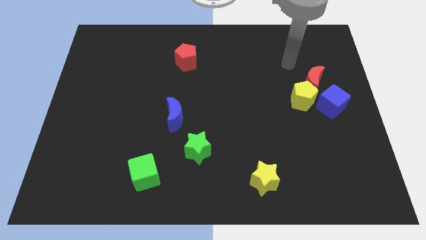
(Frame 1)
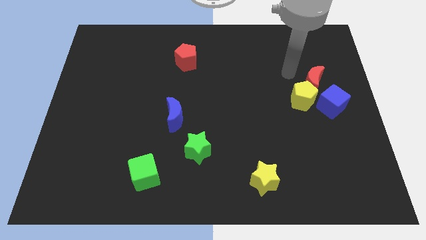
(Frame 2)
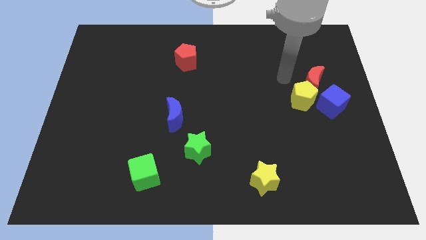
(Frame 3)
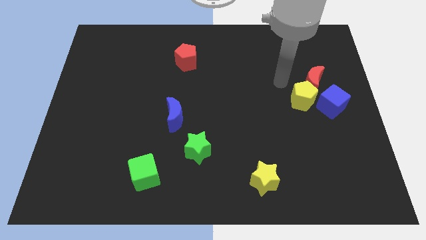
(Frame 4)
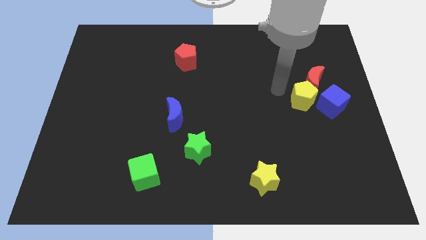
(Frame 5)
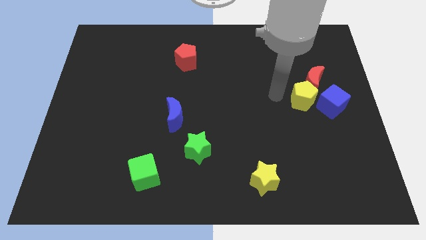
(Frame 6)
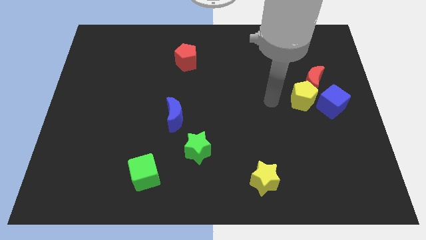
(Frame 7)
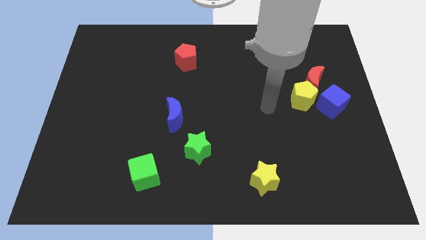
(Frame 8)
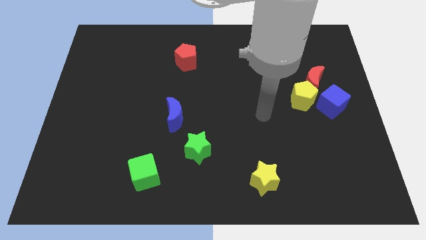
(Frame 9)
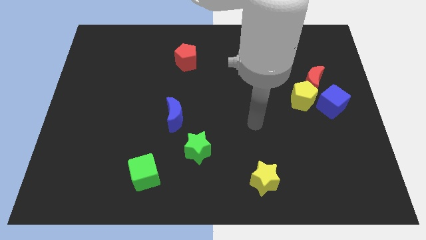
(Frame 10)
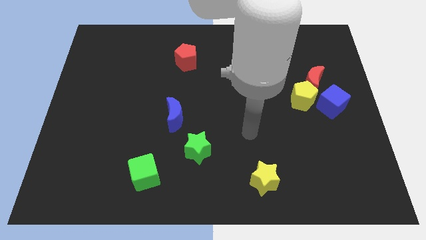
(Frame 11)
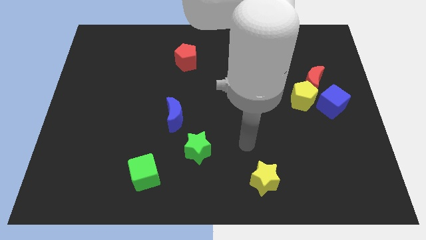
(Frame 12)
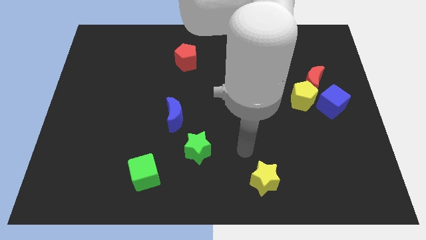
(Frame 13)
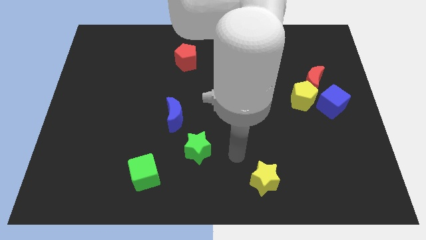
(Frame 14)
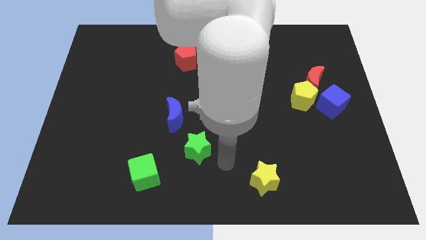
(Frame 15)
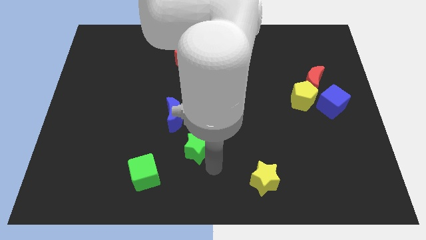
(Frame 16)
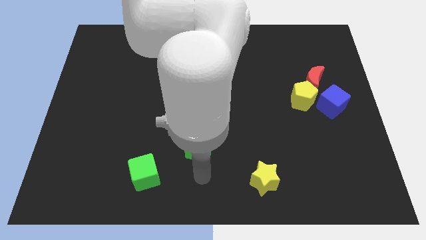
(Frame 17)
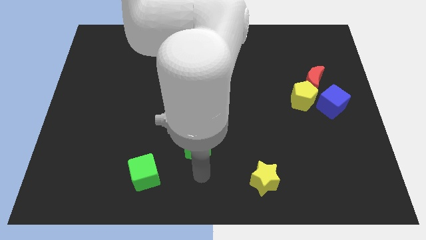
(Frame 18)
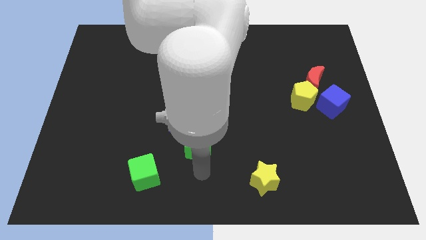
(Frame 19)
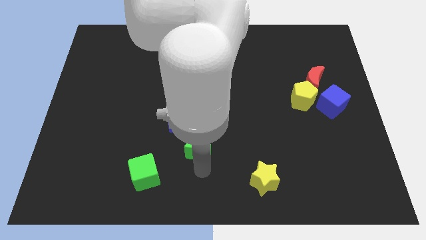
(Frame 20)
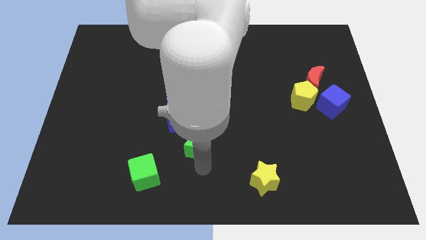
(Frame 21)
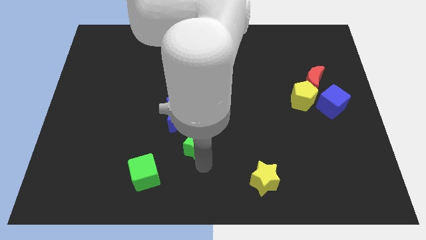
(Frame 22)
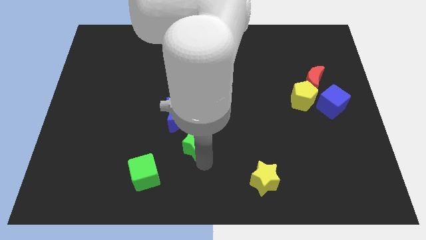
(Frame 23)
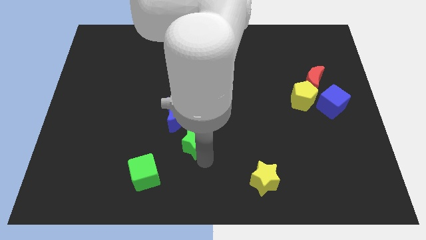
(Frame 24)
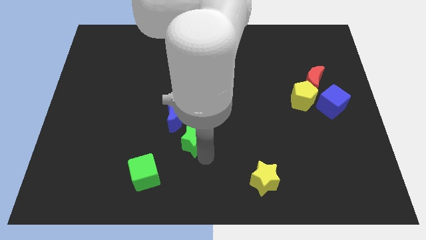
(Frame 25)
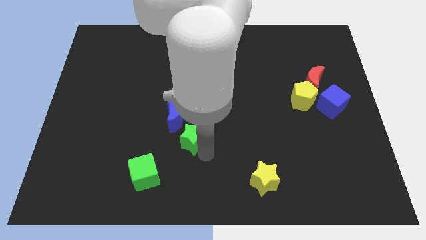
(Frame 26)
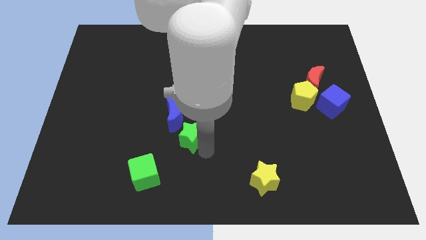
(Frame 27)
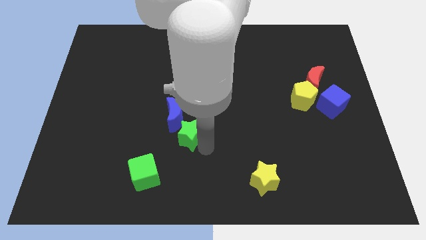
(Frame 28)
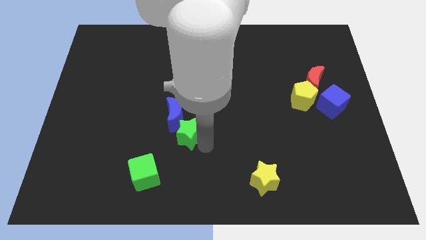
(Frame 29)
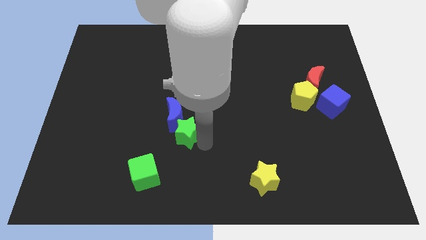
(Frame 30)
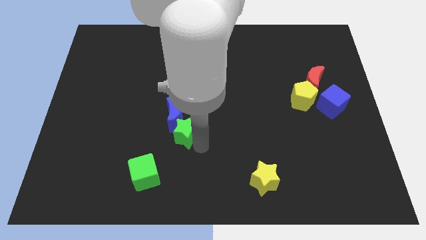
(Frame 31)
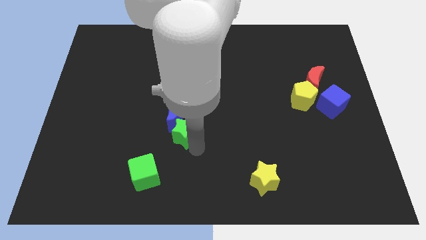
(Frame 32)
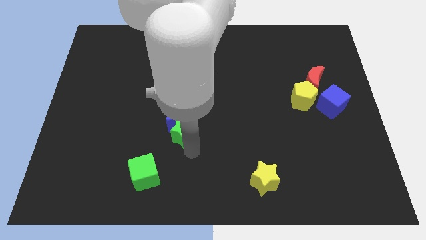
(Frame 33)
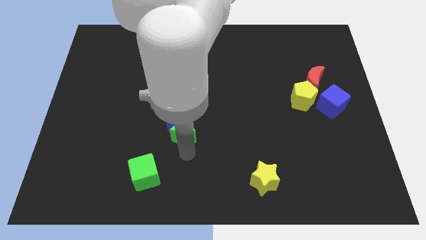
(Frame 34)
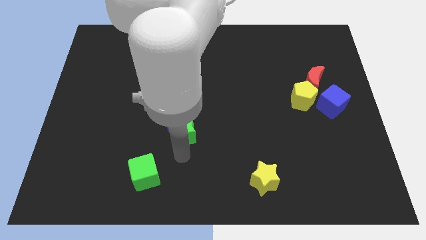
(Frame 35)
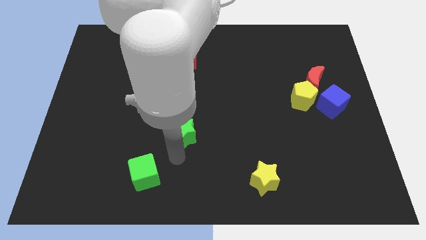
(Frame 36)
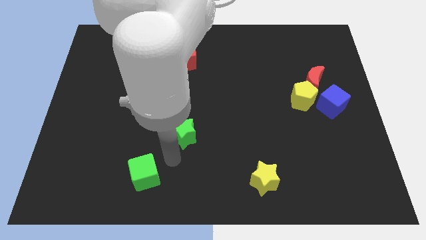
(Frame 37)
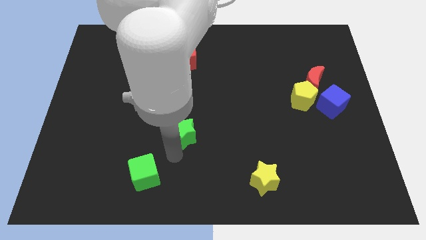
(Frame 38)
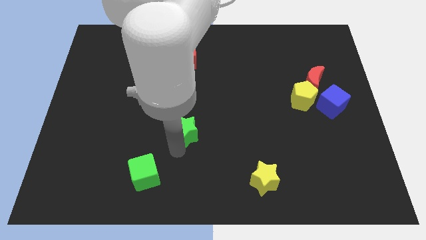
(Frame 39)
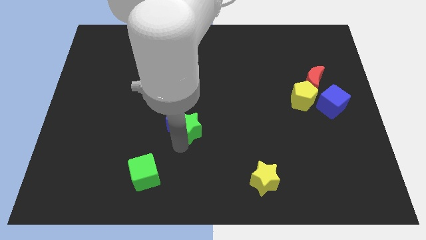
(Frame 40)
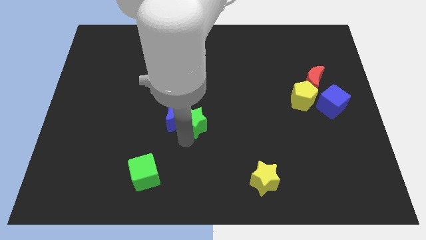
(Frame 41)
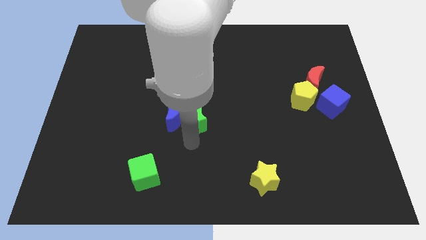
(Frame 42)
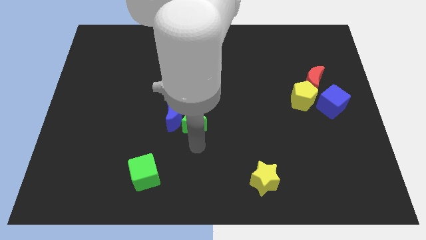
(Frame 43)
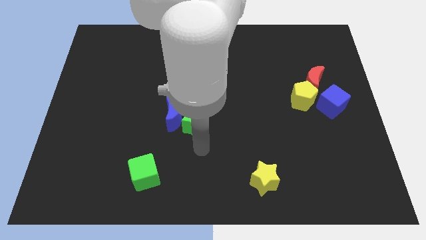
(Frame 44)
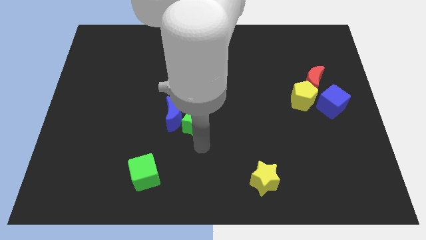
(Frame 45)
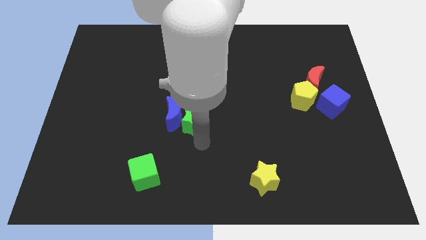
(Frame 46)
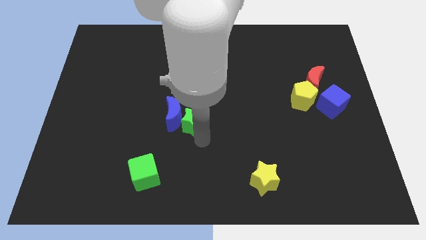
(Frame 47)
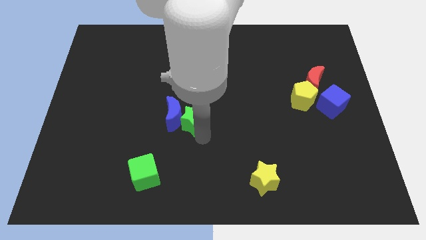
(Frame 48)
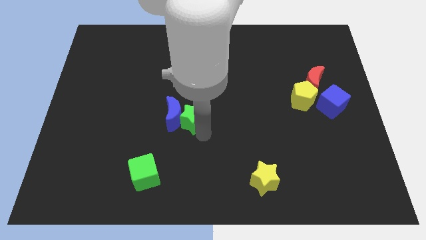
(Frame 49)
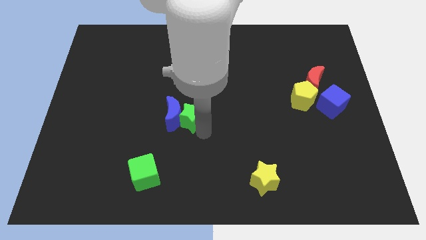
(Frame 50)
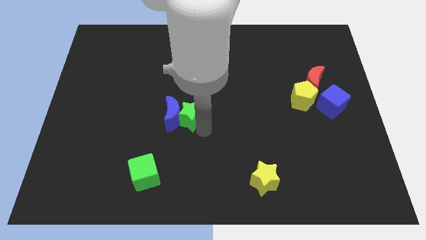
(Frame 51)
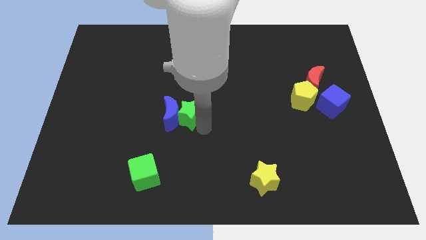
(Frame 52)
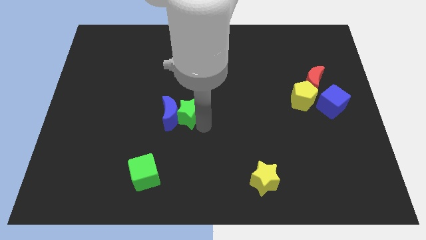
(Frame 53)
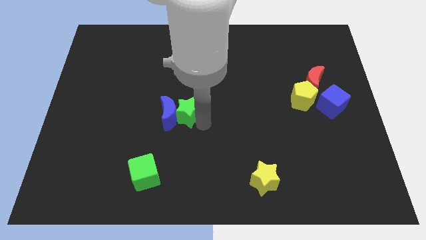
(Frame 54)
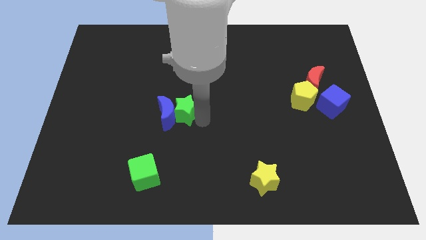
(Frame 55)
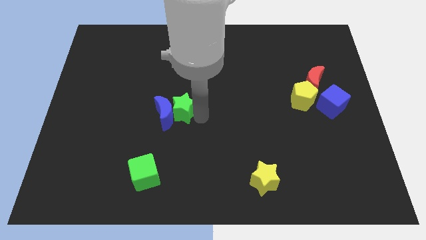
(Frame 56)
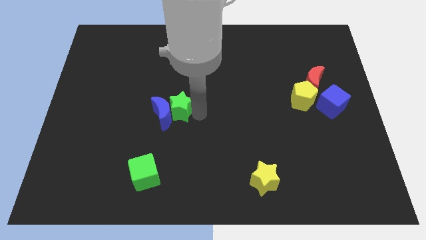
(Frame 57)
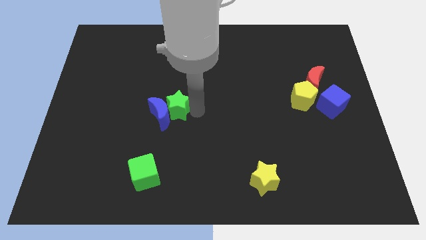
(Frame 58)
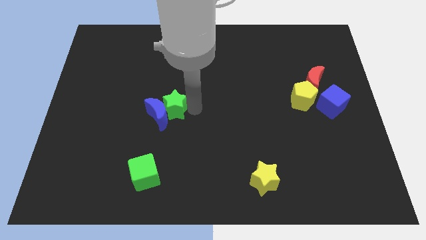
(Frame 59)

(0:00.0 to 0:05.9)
push the green star to the top of the blue moon

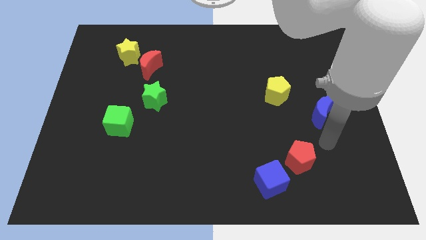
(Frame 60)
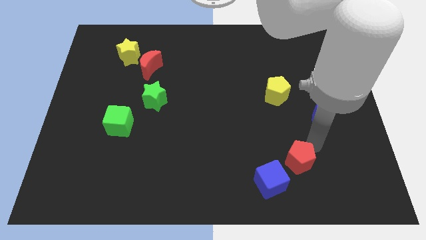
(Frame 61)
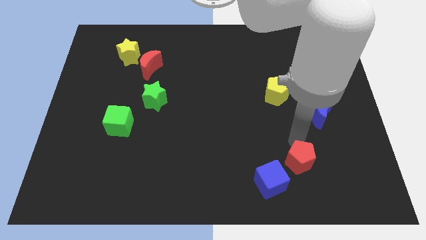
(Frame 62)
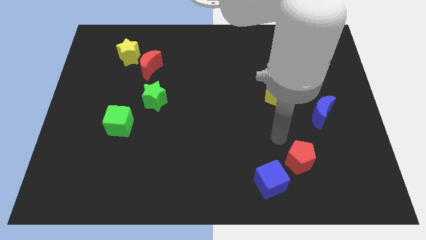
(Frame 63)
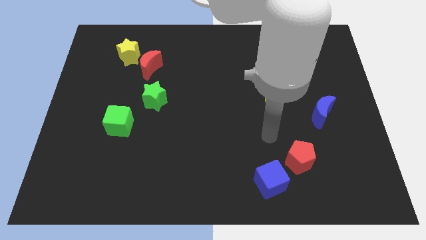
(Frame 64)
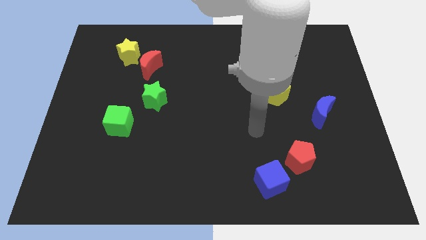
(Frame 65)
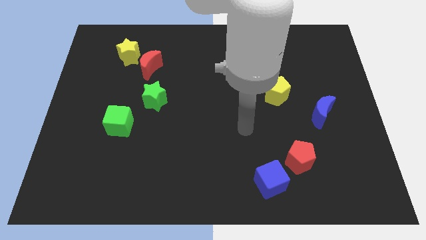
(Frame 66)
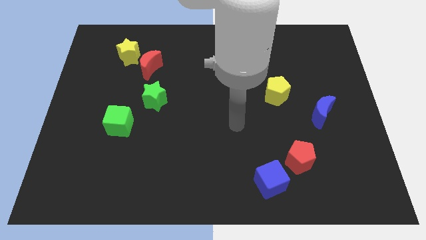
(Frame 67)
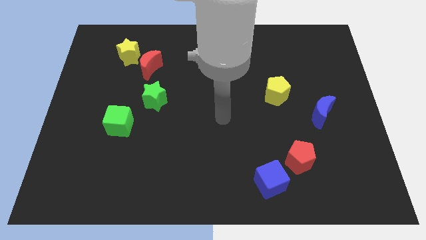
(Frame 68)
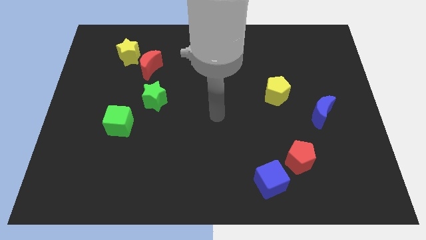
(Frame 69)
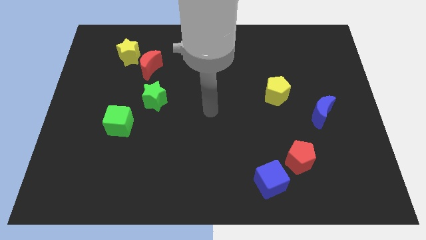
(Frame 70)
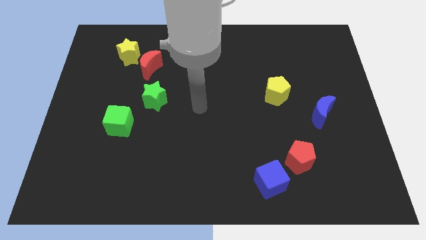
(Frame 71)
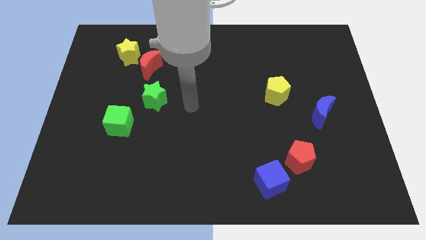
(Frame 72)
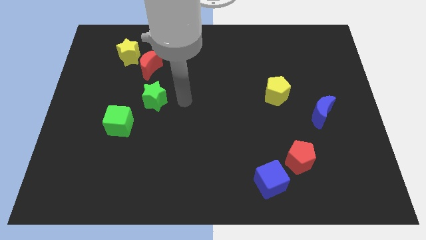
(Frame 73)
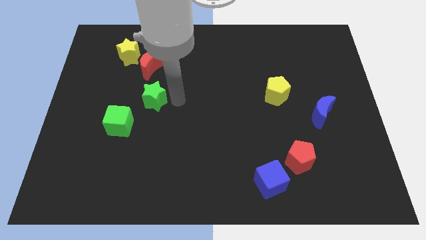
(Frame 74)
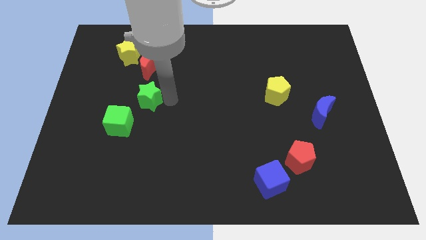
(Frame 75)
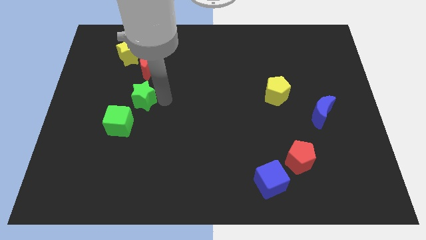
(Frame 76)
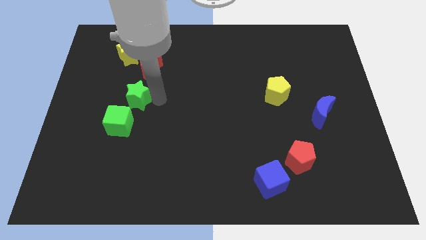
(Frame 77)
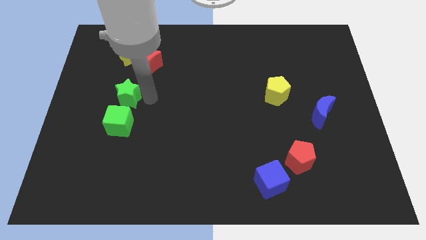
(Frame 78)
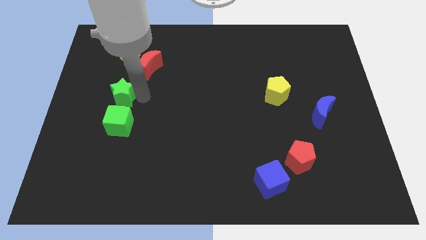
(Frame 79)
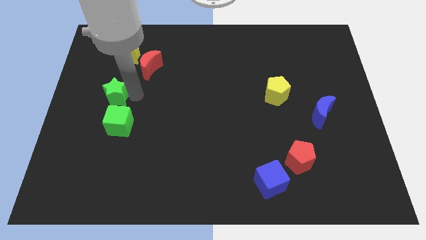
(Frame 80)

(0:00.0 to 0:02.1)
push the green star to the top left side of the green cube
